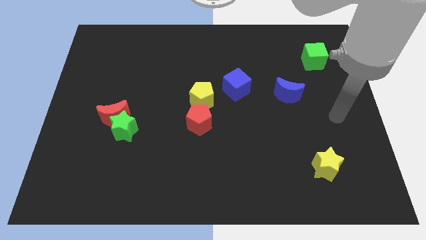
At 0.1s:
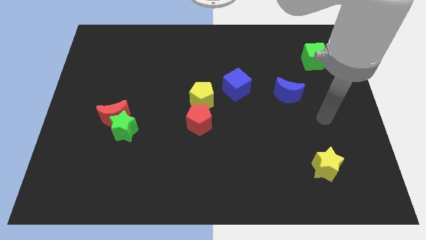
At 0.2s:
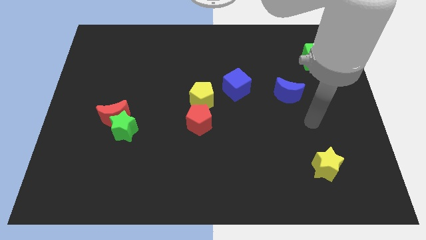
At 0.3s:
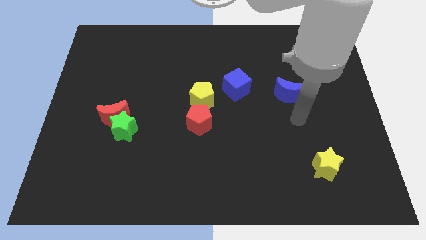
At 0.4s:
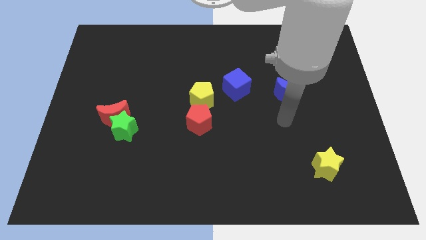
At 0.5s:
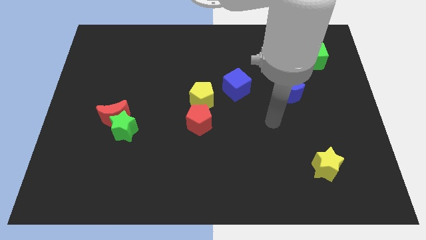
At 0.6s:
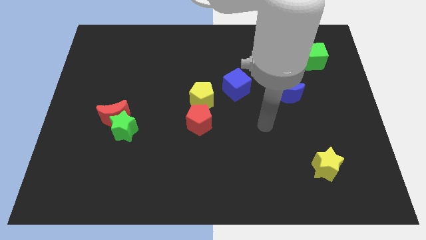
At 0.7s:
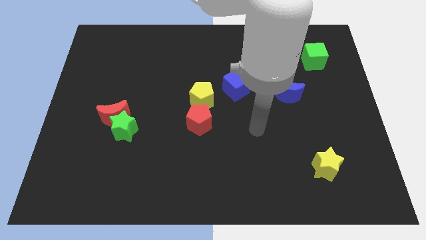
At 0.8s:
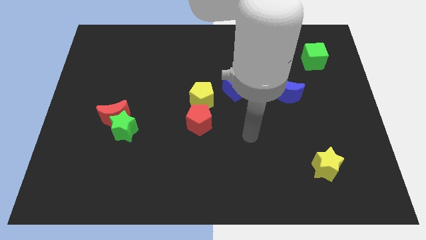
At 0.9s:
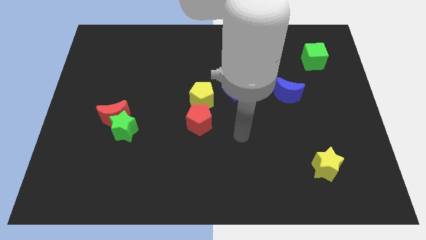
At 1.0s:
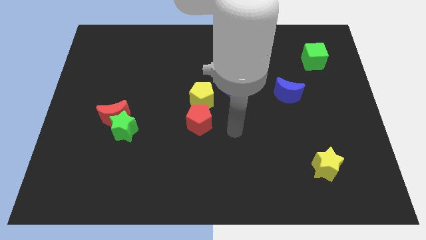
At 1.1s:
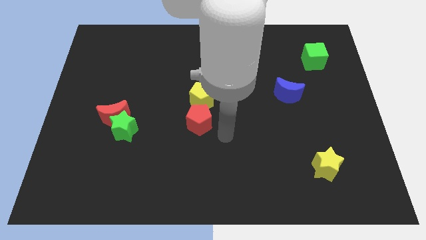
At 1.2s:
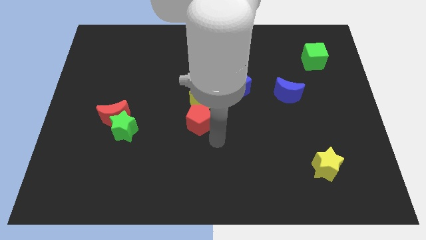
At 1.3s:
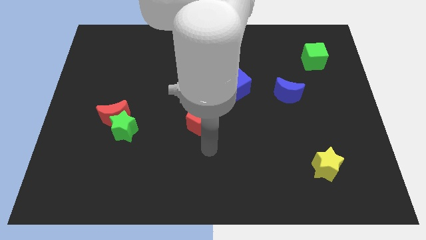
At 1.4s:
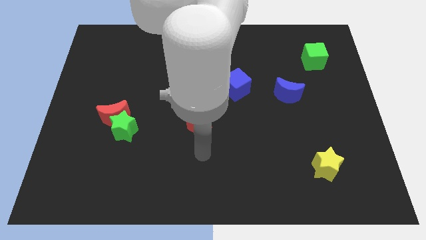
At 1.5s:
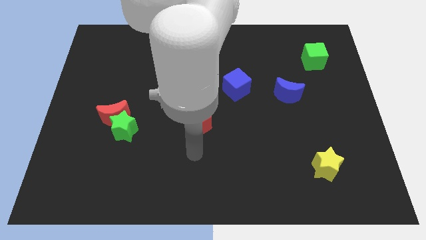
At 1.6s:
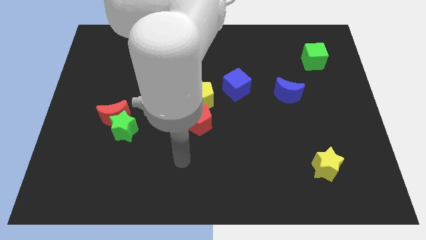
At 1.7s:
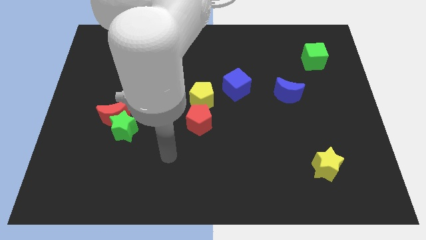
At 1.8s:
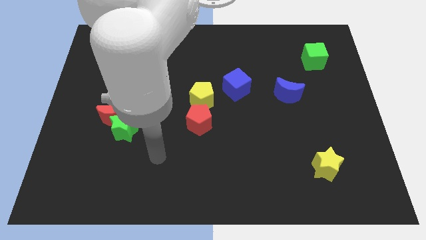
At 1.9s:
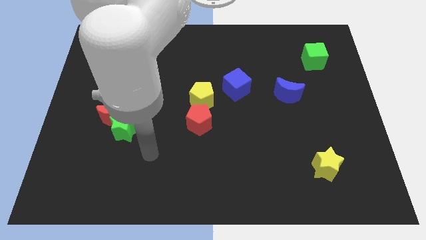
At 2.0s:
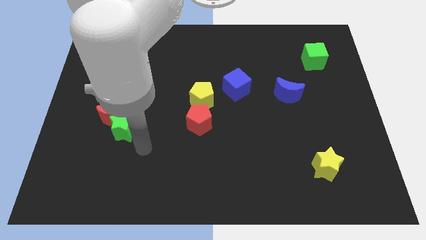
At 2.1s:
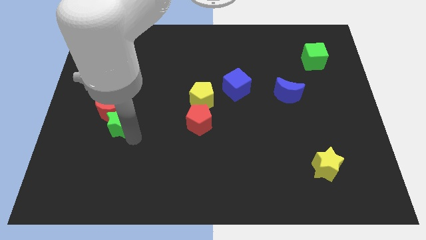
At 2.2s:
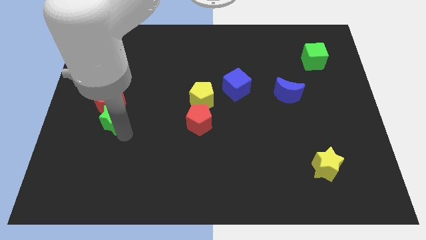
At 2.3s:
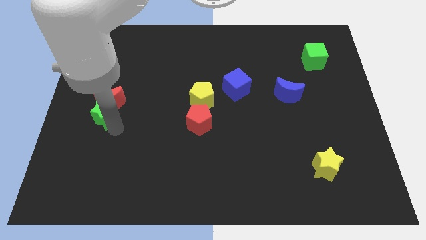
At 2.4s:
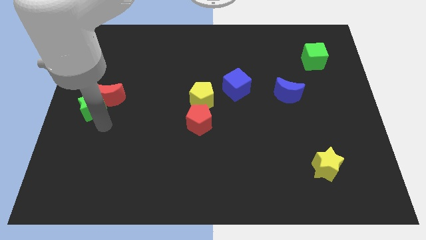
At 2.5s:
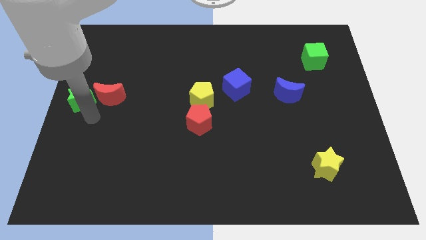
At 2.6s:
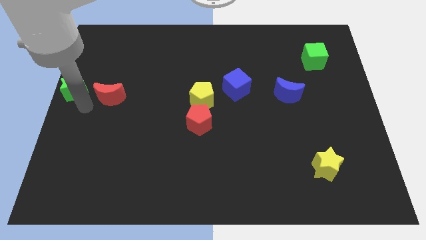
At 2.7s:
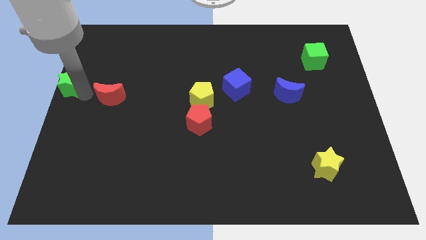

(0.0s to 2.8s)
move the red moon away from the green star

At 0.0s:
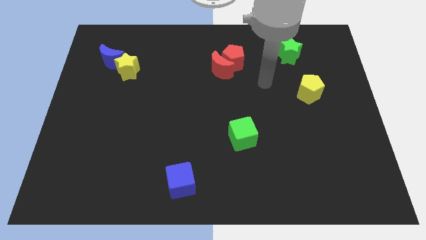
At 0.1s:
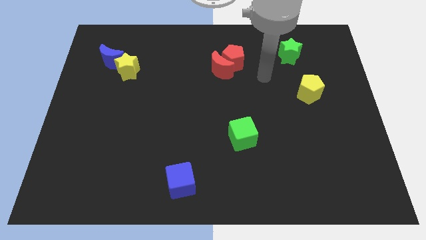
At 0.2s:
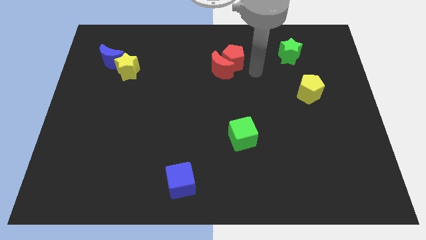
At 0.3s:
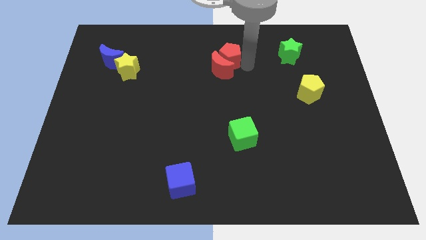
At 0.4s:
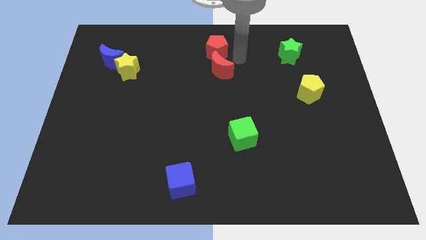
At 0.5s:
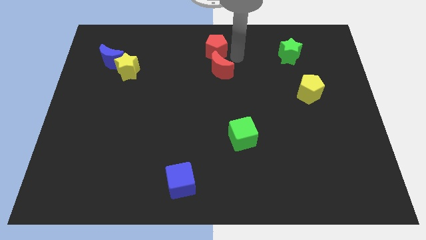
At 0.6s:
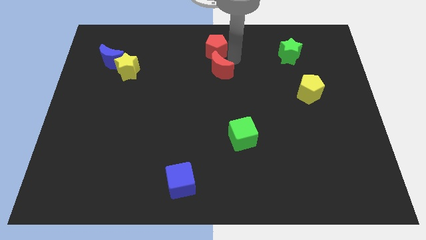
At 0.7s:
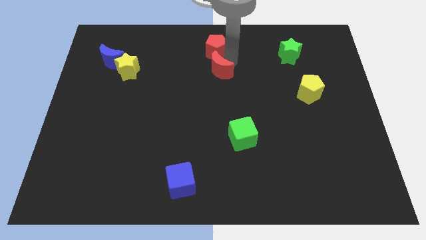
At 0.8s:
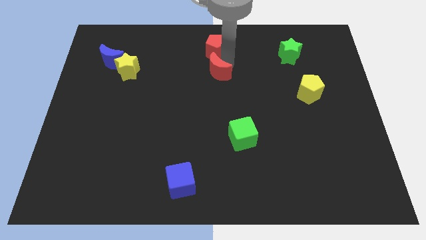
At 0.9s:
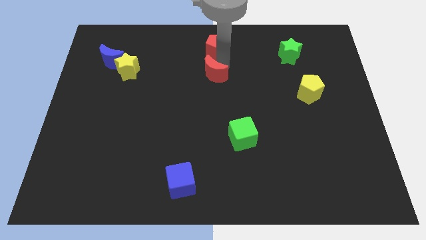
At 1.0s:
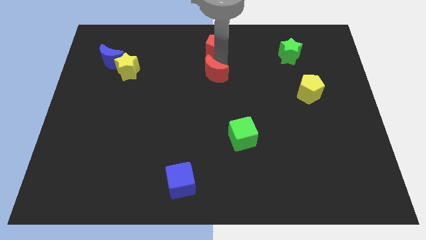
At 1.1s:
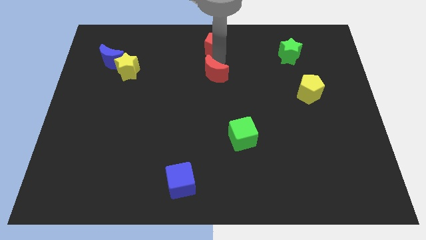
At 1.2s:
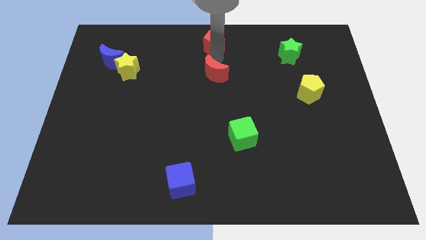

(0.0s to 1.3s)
move the red moon away from the red pentagon

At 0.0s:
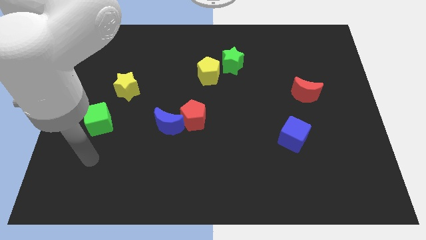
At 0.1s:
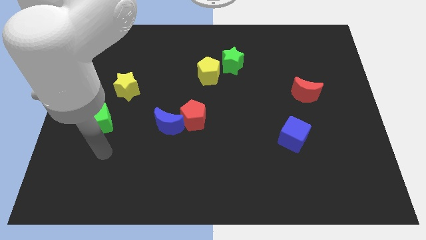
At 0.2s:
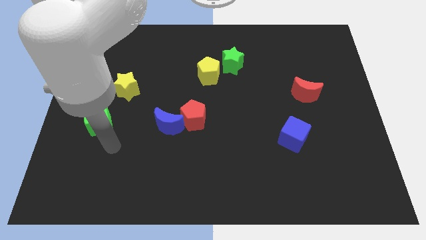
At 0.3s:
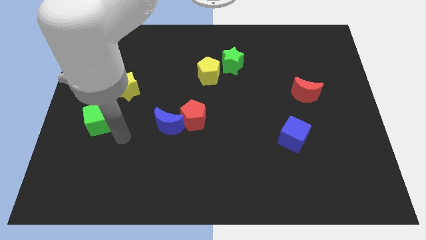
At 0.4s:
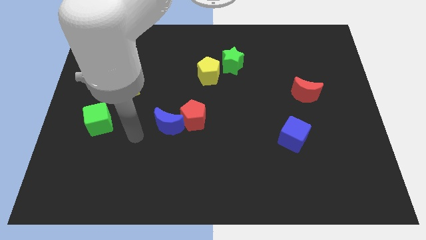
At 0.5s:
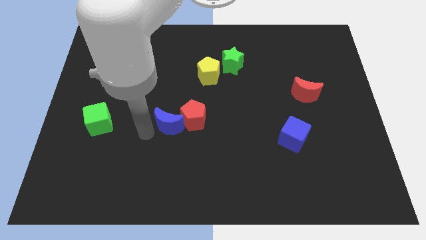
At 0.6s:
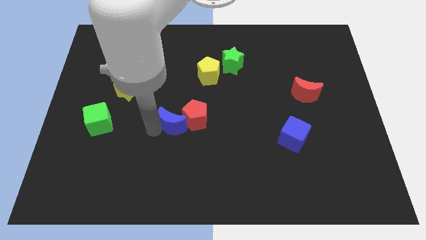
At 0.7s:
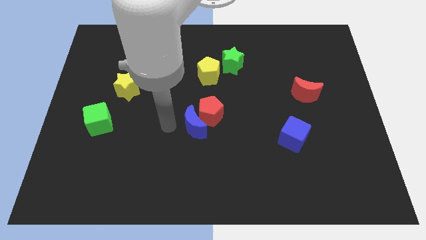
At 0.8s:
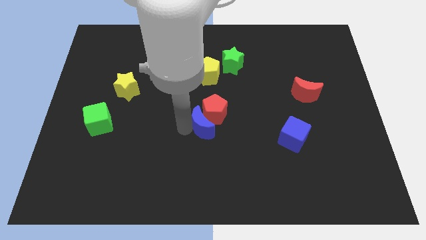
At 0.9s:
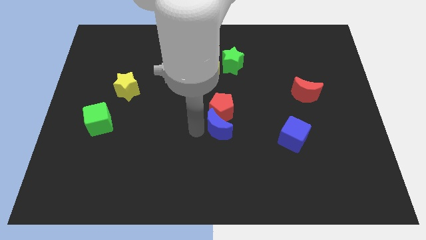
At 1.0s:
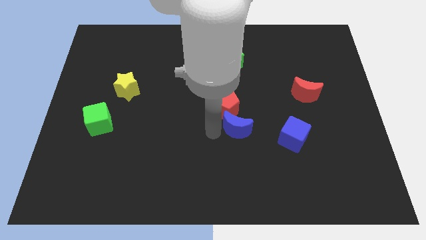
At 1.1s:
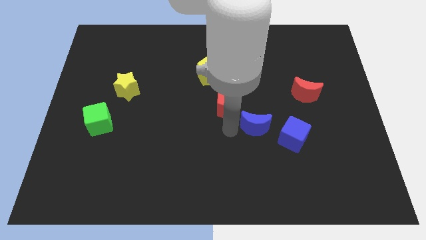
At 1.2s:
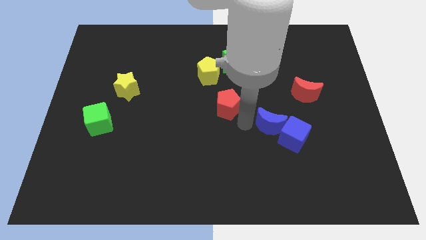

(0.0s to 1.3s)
separate the red pentagon from the blue moon

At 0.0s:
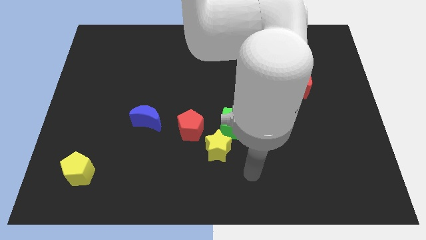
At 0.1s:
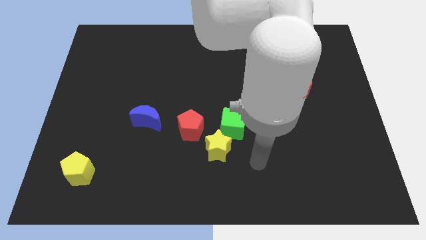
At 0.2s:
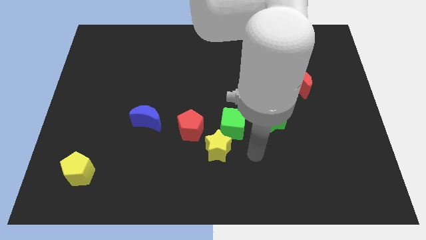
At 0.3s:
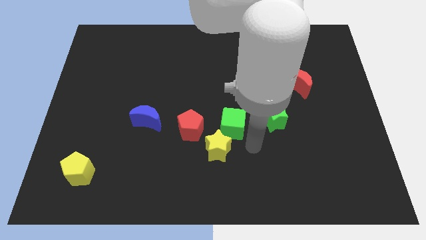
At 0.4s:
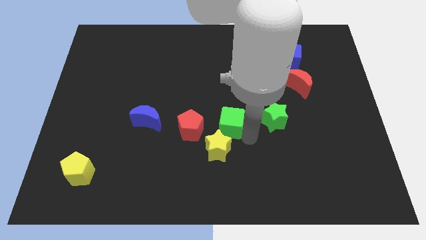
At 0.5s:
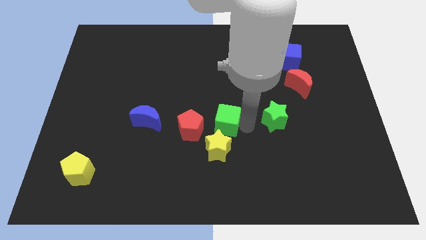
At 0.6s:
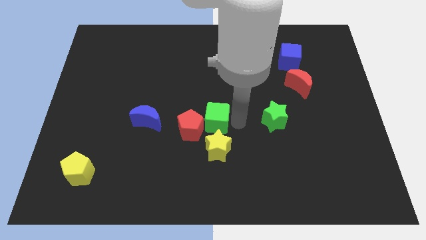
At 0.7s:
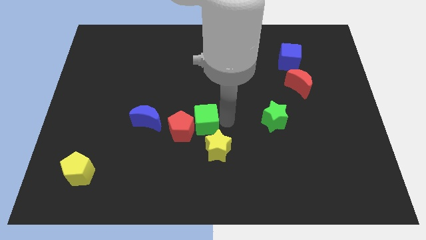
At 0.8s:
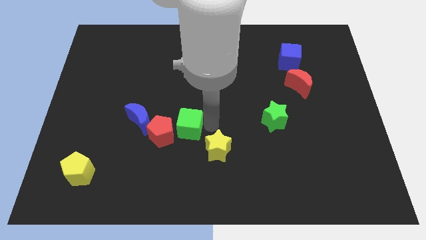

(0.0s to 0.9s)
move the yellow star away from the green cube and red pentagon

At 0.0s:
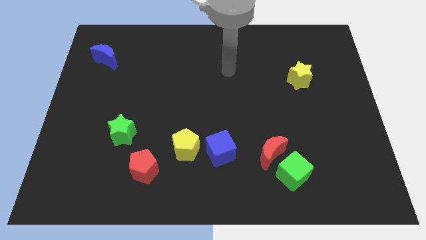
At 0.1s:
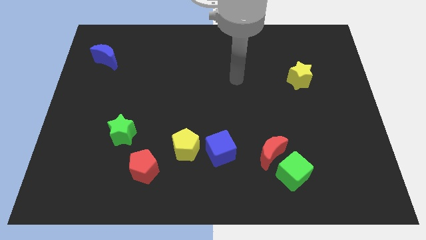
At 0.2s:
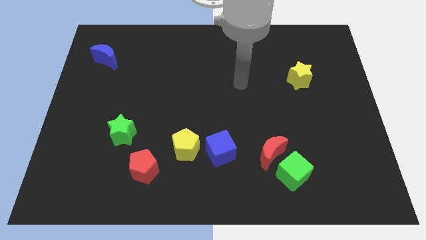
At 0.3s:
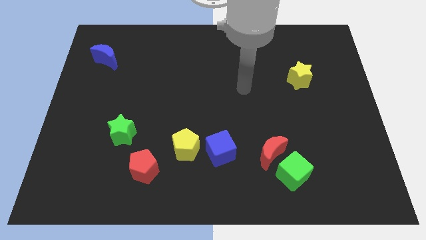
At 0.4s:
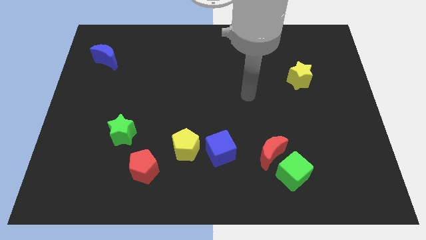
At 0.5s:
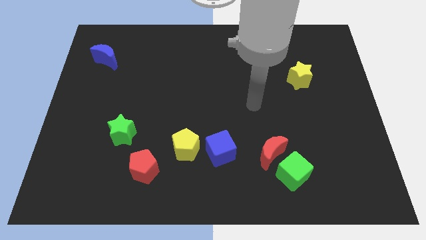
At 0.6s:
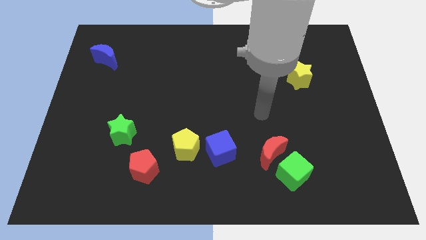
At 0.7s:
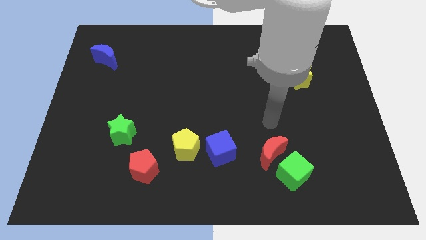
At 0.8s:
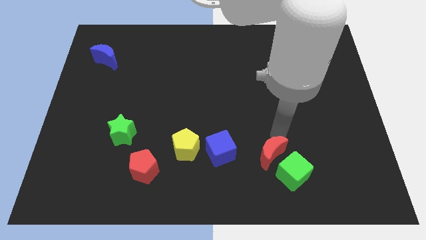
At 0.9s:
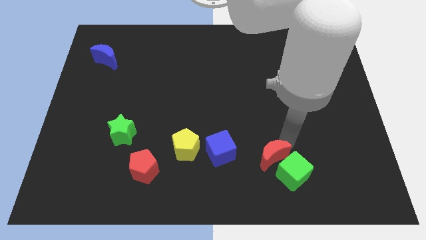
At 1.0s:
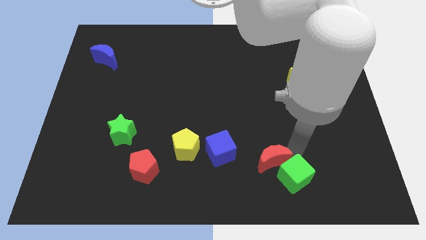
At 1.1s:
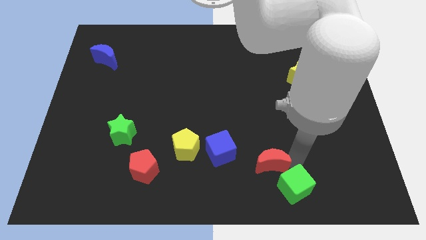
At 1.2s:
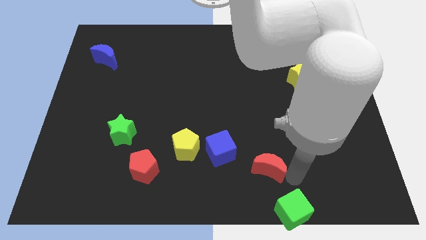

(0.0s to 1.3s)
separate the red moon from the green cube

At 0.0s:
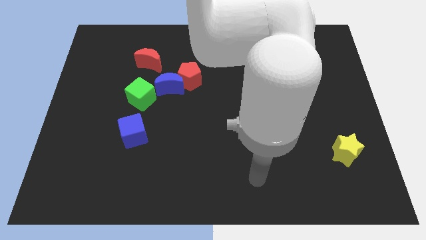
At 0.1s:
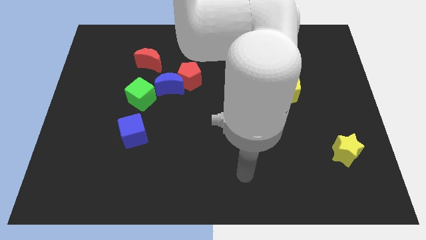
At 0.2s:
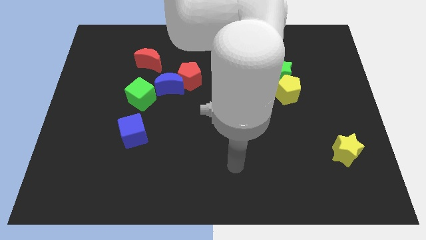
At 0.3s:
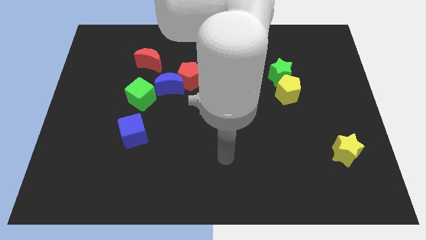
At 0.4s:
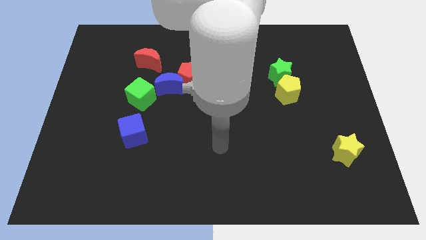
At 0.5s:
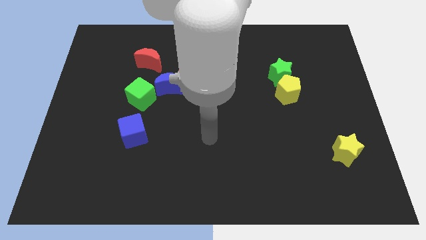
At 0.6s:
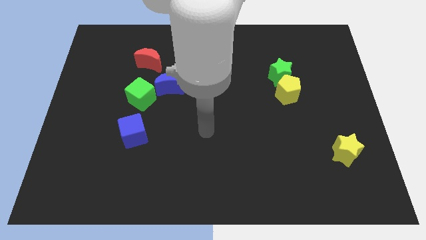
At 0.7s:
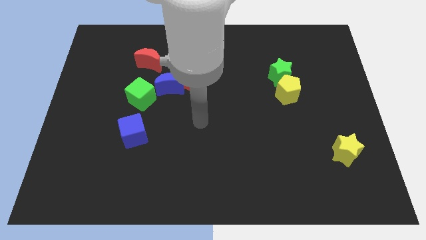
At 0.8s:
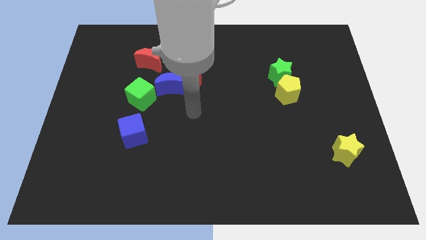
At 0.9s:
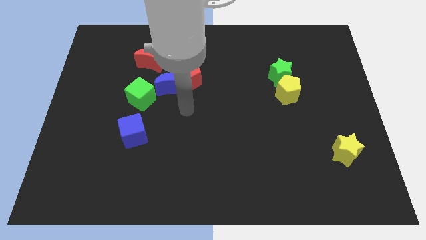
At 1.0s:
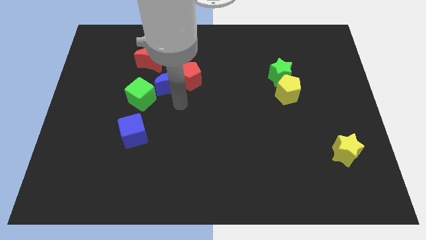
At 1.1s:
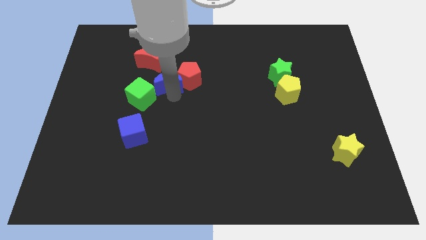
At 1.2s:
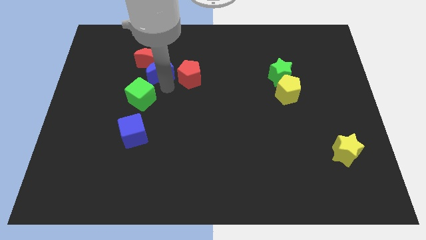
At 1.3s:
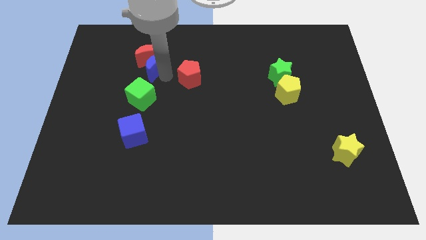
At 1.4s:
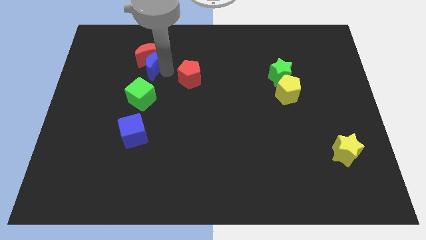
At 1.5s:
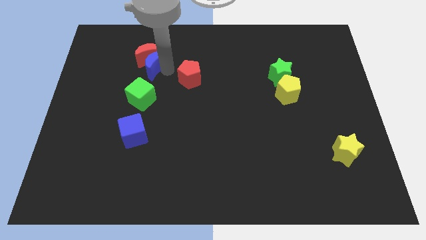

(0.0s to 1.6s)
move the red pentagon away from the blue moon

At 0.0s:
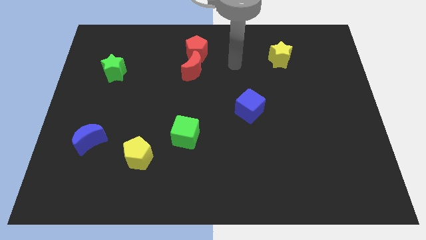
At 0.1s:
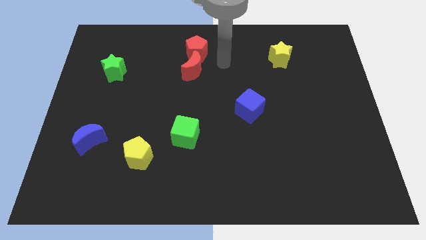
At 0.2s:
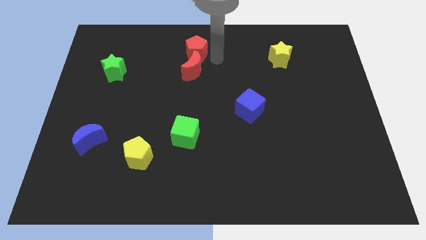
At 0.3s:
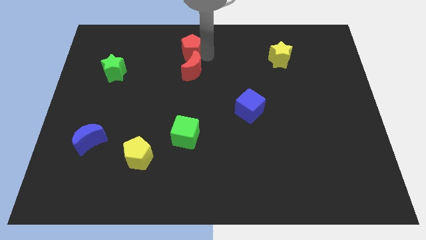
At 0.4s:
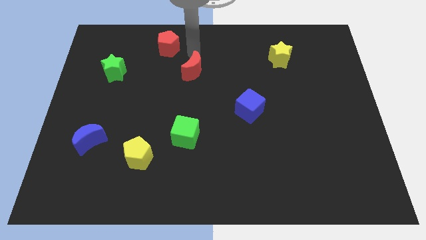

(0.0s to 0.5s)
separate the red moon from the red pentagon
